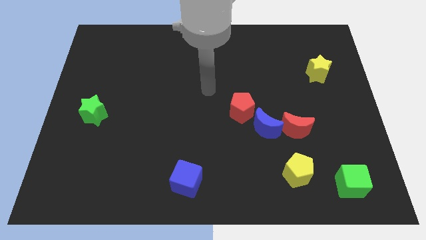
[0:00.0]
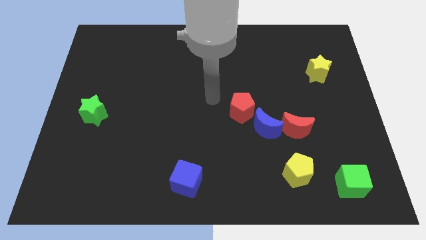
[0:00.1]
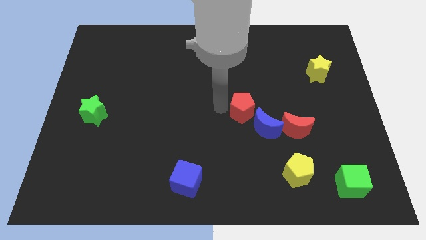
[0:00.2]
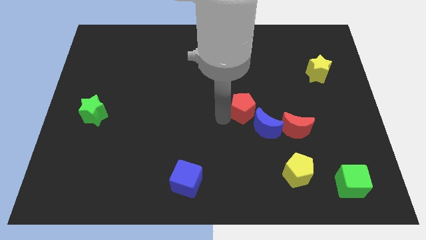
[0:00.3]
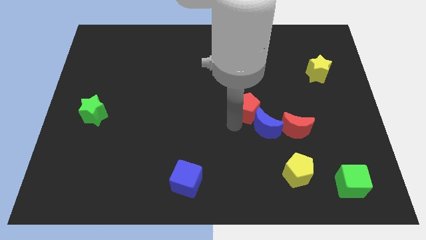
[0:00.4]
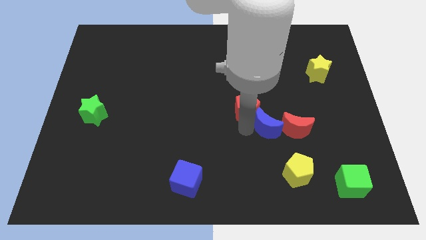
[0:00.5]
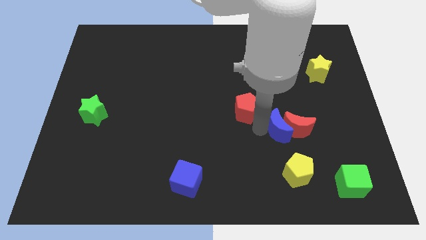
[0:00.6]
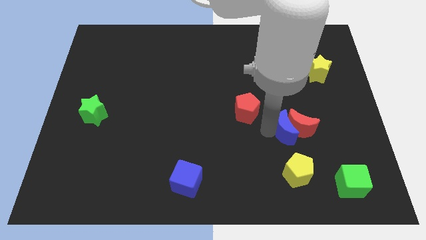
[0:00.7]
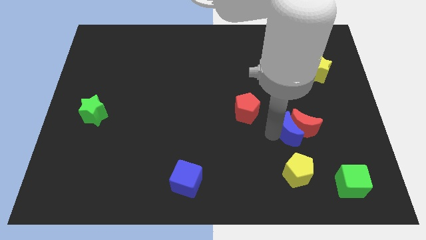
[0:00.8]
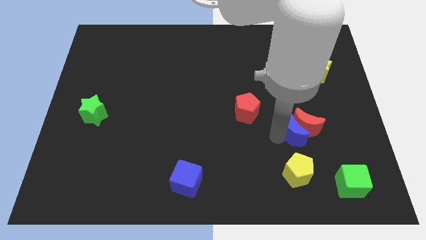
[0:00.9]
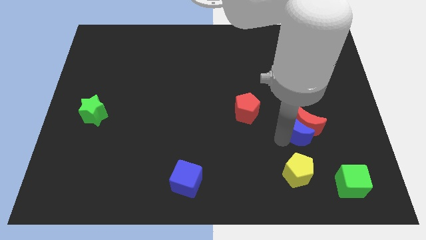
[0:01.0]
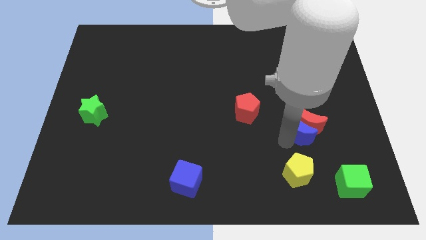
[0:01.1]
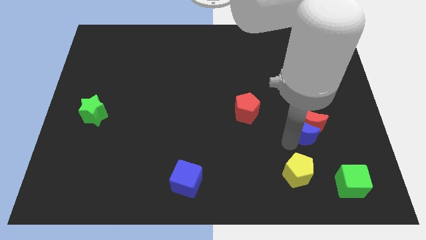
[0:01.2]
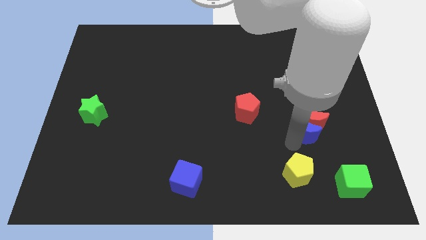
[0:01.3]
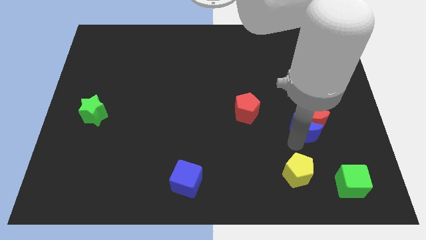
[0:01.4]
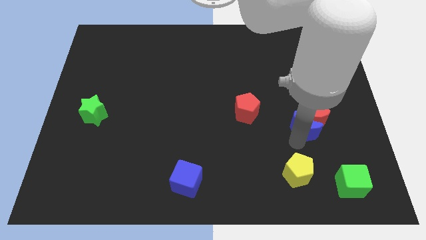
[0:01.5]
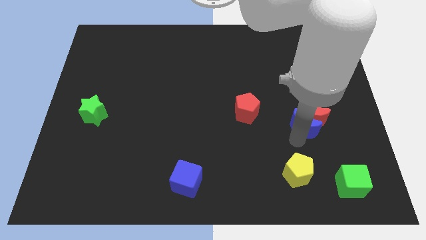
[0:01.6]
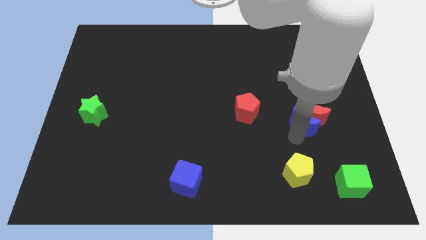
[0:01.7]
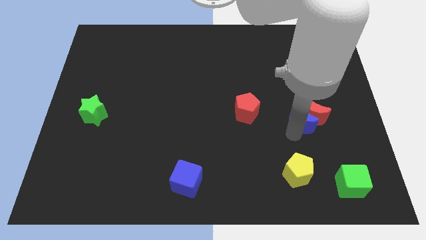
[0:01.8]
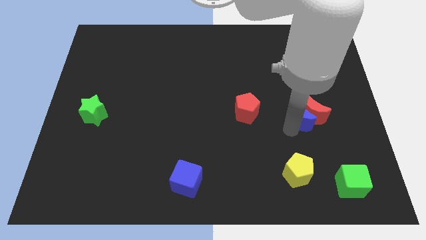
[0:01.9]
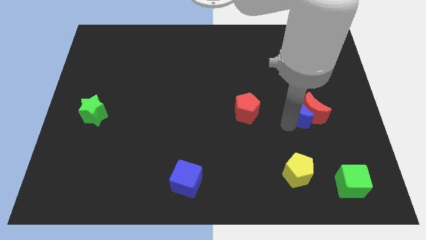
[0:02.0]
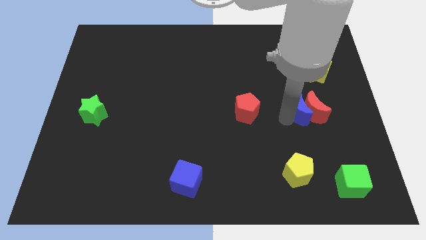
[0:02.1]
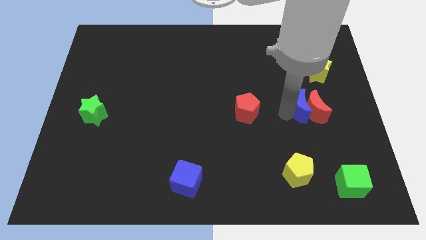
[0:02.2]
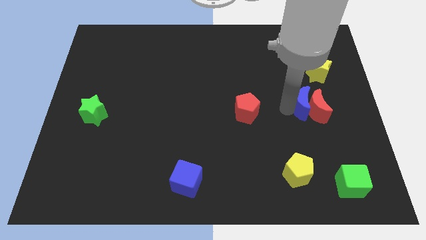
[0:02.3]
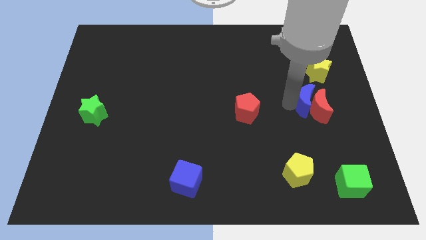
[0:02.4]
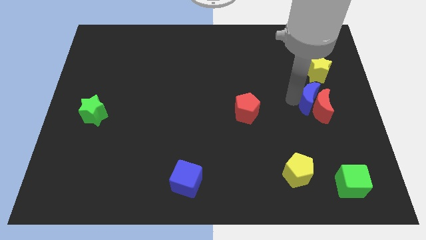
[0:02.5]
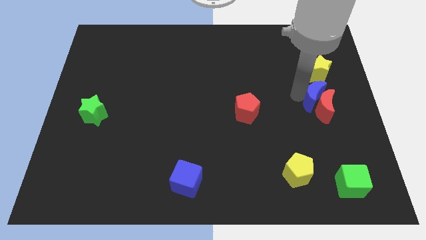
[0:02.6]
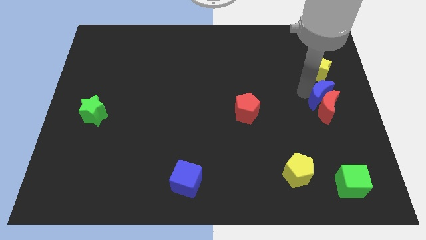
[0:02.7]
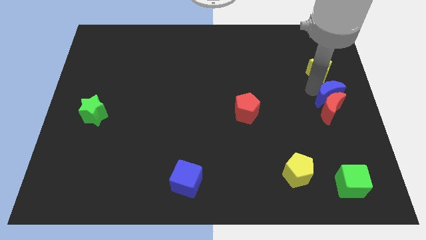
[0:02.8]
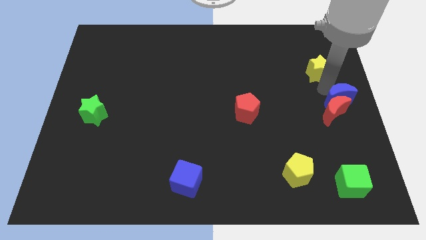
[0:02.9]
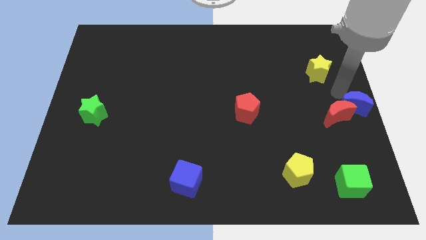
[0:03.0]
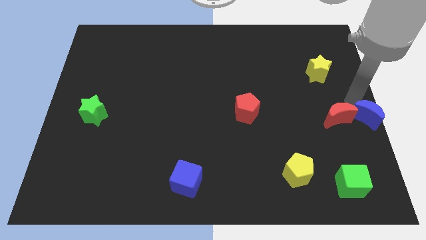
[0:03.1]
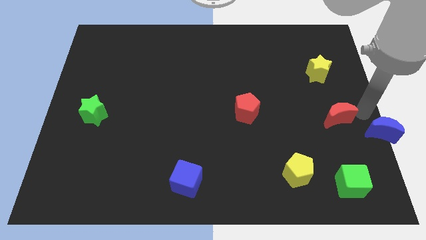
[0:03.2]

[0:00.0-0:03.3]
separate the red moon from the blue moon

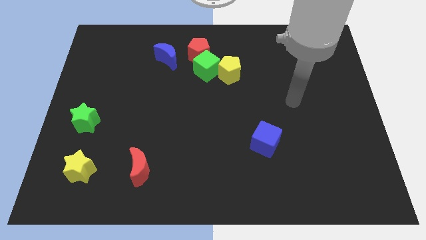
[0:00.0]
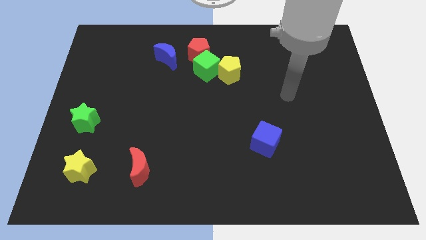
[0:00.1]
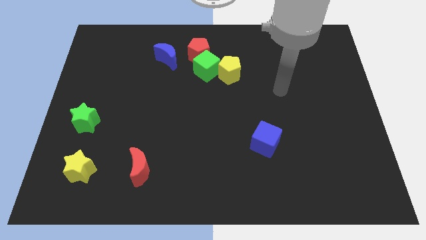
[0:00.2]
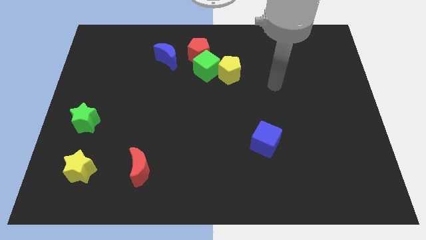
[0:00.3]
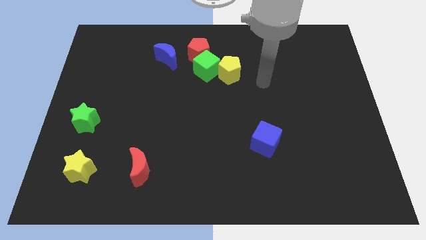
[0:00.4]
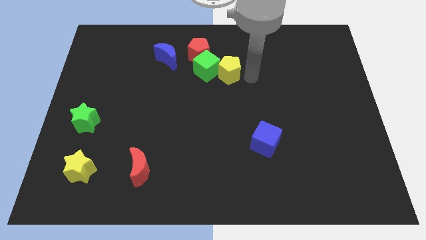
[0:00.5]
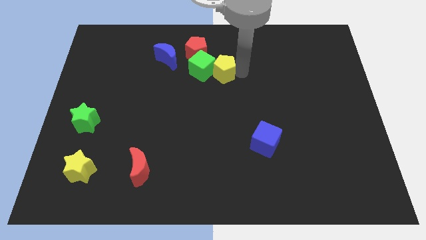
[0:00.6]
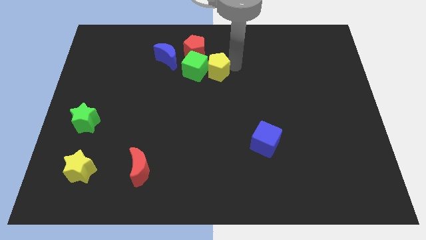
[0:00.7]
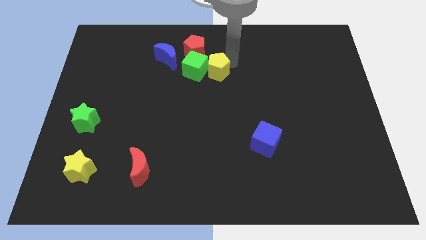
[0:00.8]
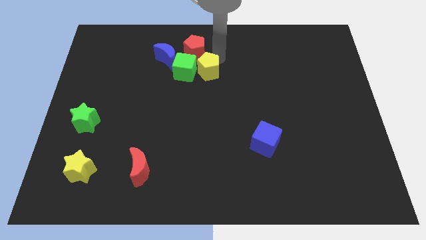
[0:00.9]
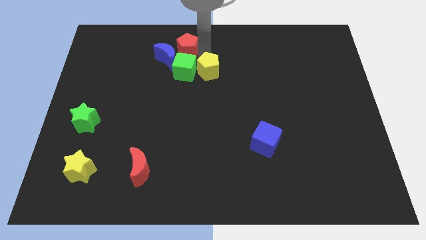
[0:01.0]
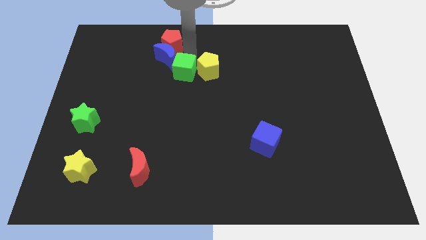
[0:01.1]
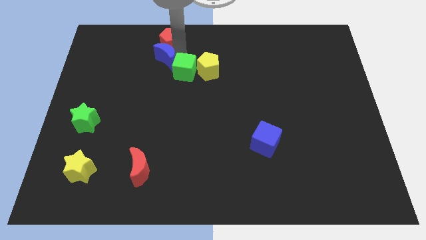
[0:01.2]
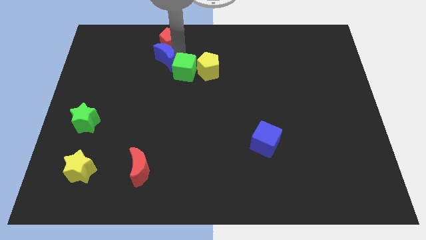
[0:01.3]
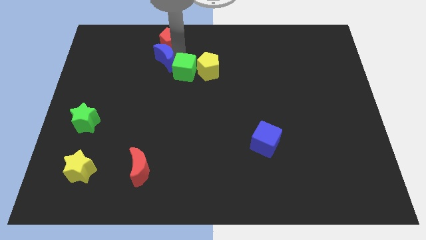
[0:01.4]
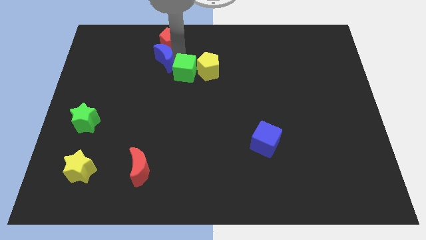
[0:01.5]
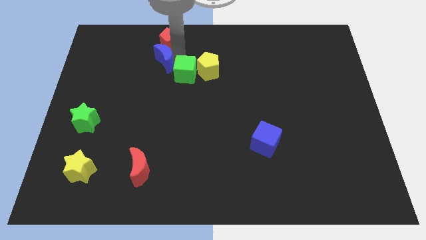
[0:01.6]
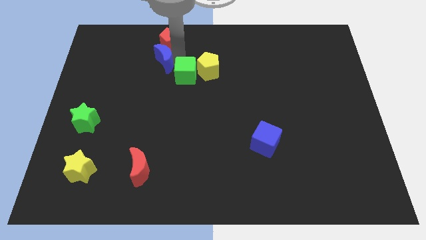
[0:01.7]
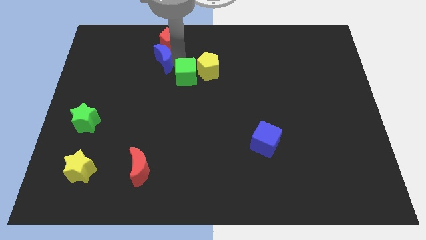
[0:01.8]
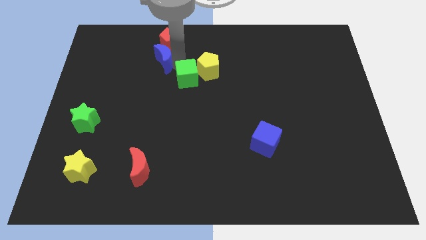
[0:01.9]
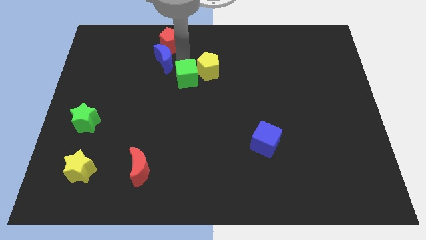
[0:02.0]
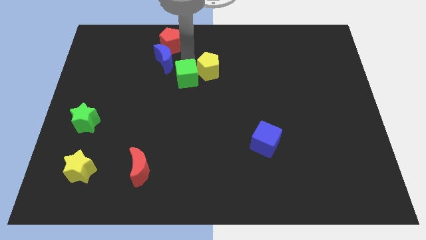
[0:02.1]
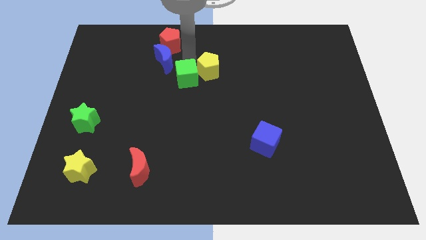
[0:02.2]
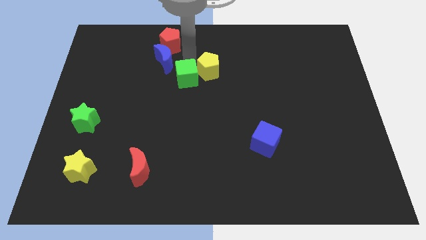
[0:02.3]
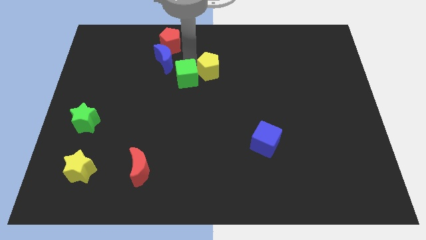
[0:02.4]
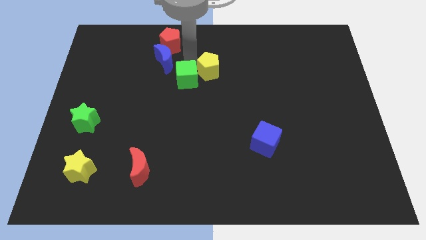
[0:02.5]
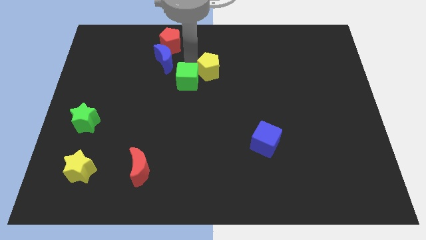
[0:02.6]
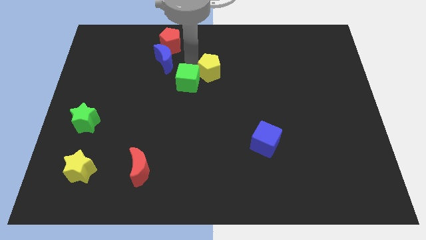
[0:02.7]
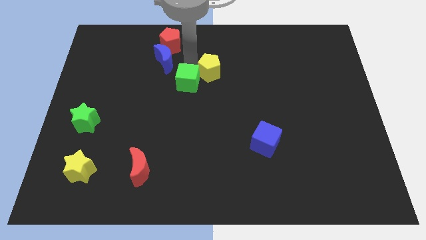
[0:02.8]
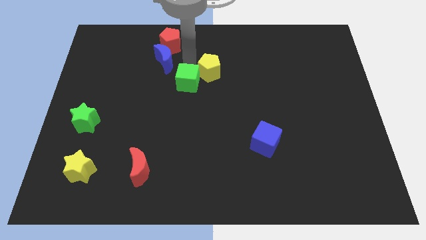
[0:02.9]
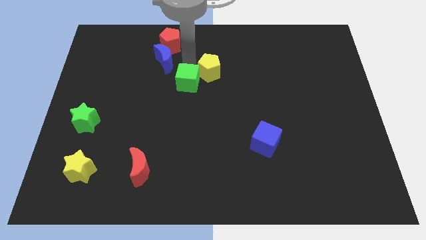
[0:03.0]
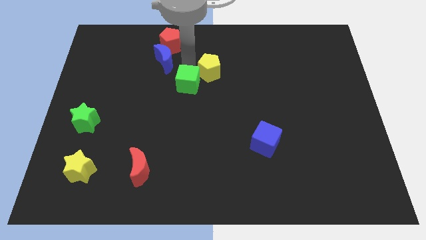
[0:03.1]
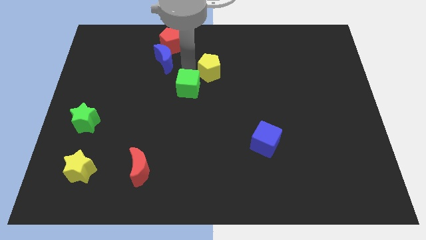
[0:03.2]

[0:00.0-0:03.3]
separate the green cube from the yellow pentagon and red pentagon

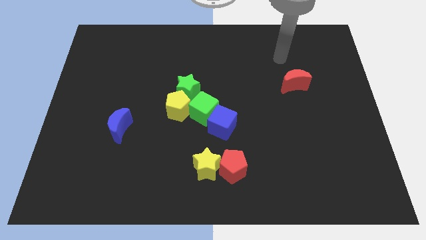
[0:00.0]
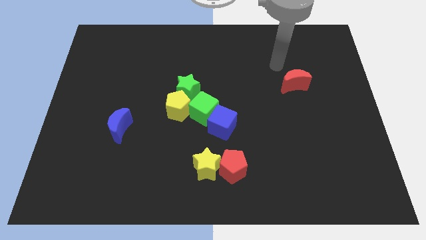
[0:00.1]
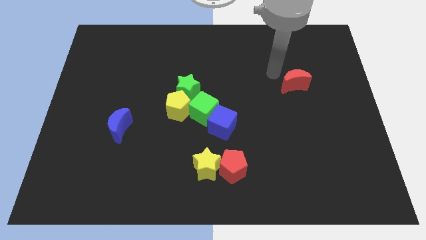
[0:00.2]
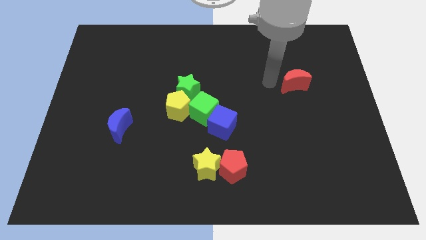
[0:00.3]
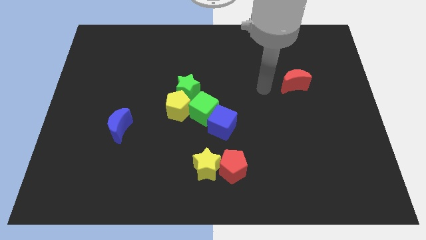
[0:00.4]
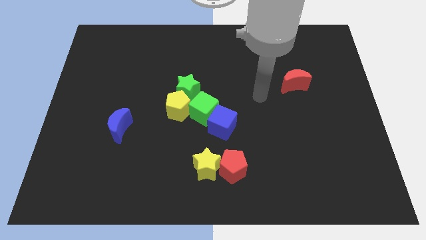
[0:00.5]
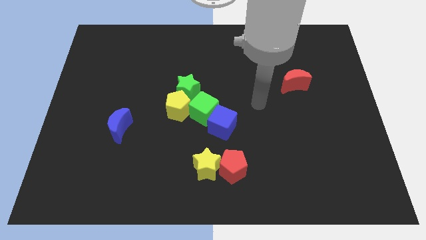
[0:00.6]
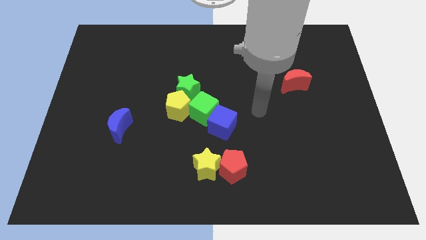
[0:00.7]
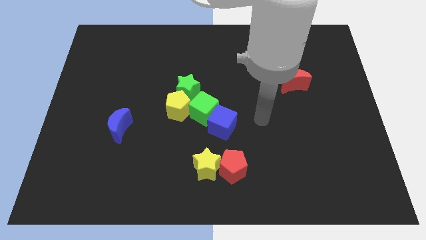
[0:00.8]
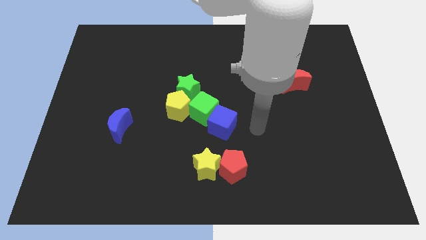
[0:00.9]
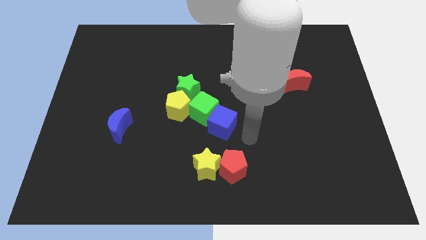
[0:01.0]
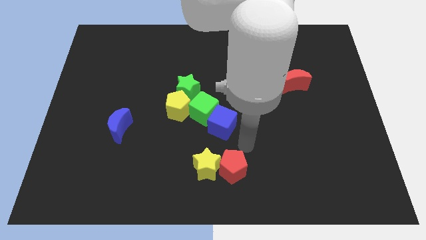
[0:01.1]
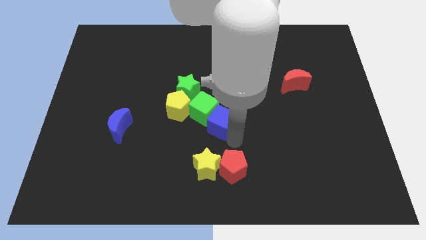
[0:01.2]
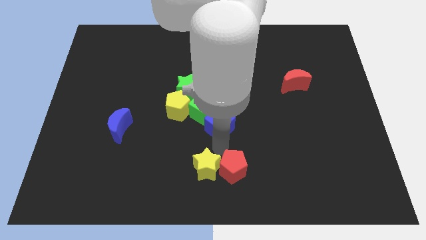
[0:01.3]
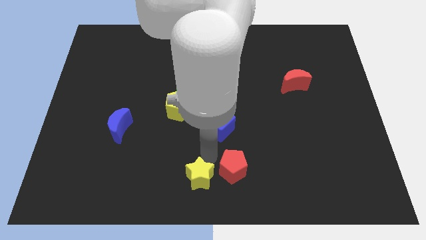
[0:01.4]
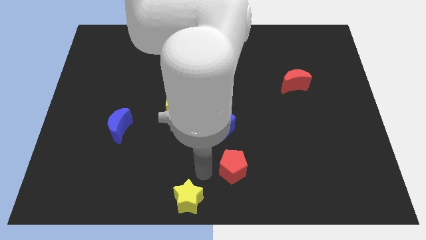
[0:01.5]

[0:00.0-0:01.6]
pull the red pentagon apart from the yellow star

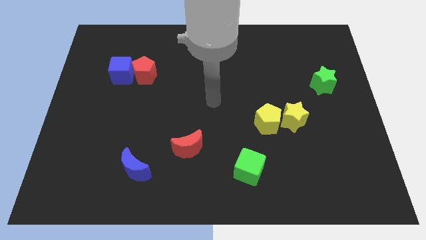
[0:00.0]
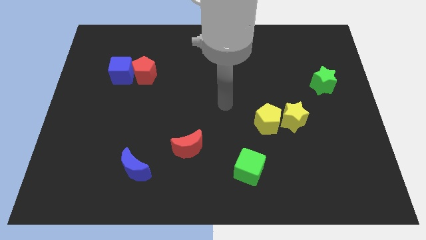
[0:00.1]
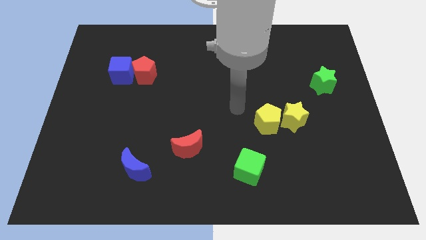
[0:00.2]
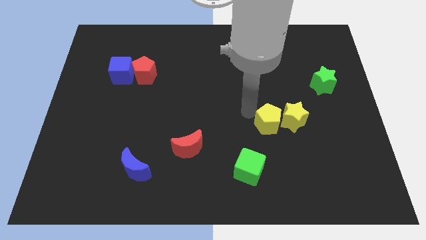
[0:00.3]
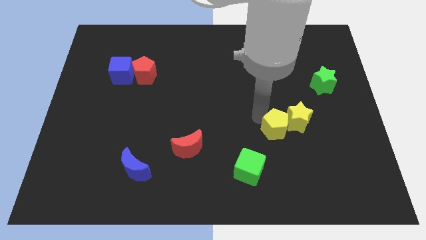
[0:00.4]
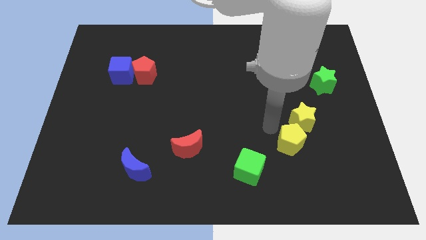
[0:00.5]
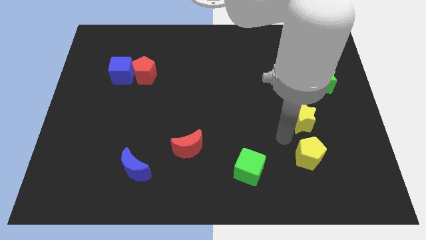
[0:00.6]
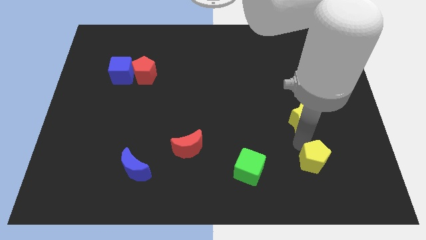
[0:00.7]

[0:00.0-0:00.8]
move the yellow star away from the yellow pentagon

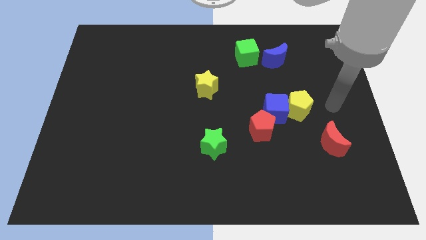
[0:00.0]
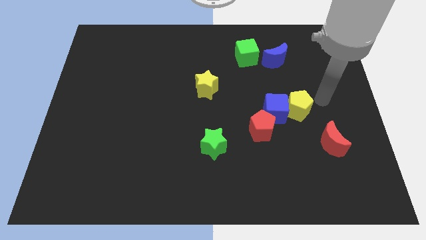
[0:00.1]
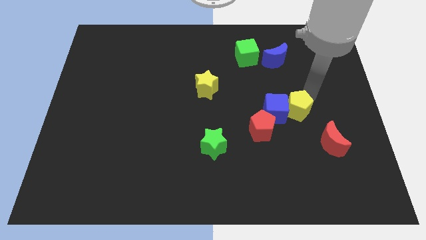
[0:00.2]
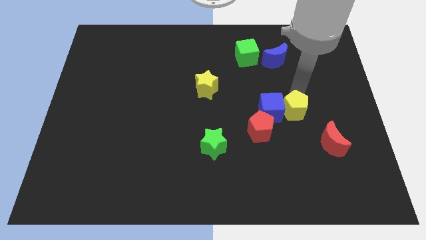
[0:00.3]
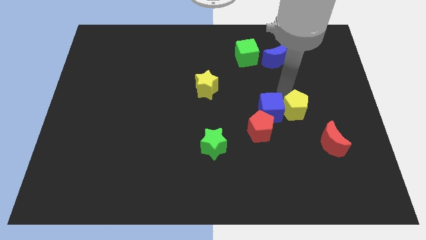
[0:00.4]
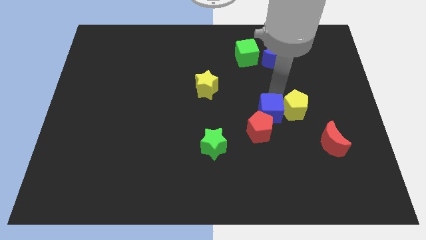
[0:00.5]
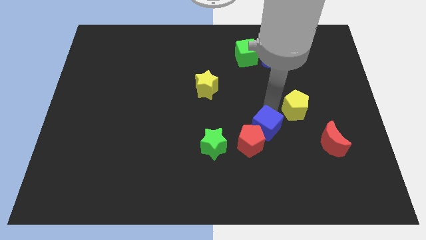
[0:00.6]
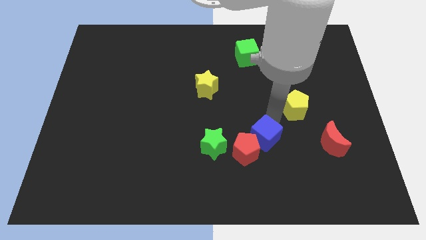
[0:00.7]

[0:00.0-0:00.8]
pull the yellow pentagon apart from the blue cube
